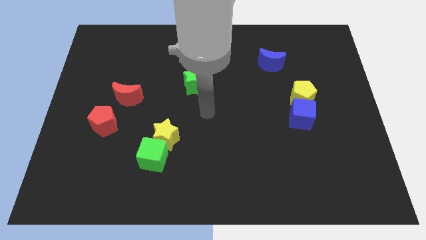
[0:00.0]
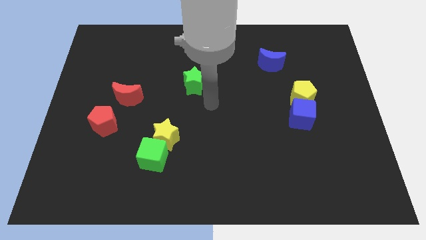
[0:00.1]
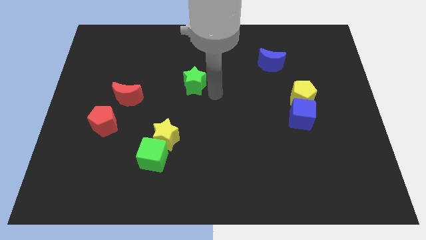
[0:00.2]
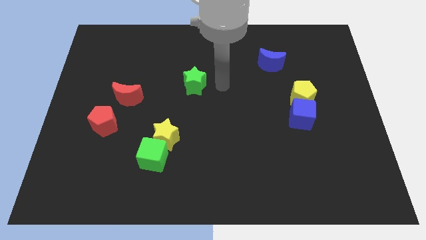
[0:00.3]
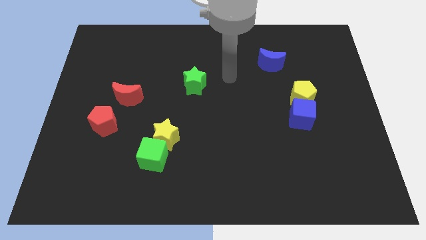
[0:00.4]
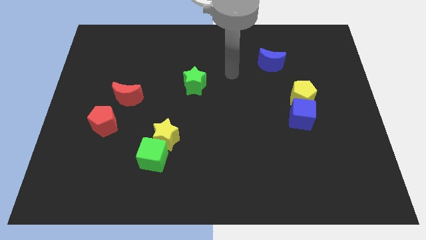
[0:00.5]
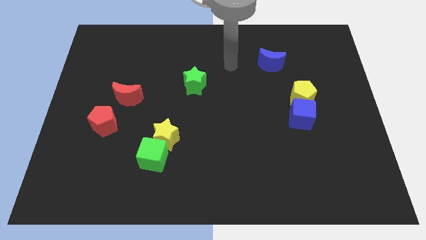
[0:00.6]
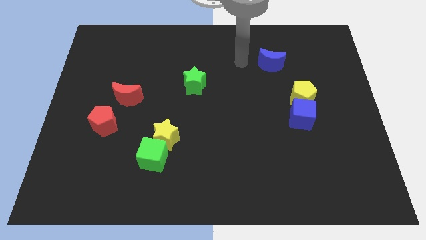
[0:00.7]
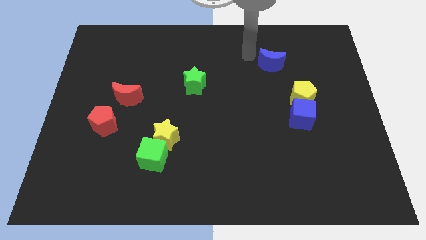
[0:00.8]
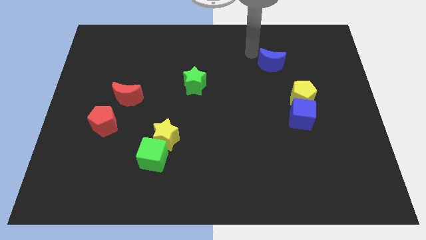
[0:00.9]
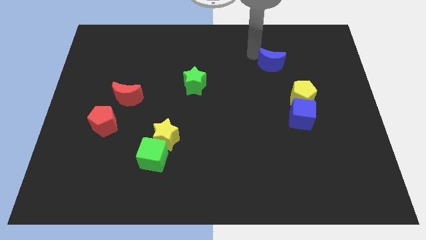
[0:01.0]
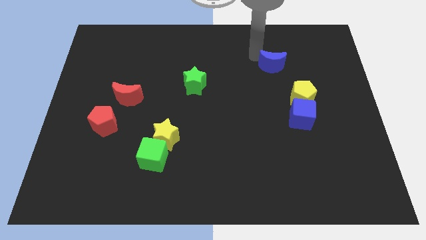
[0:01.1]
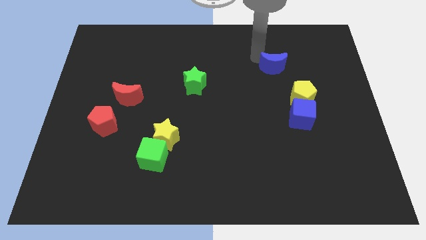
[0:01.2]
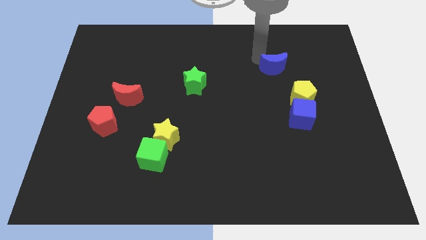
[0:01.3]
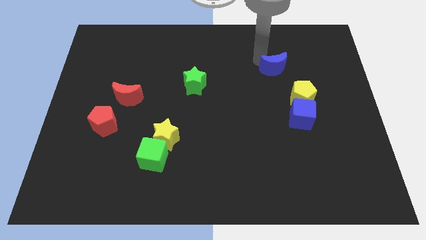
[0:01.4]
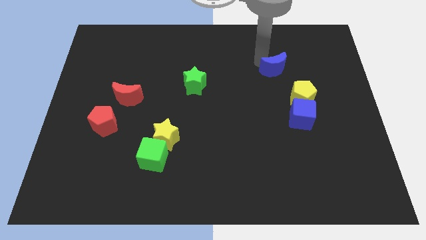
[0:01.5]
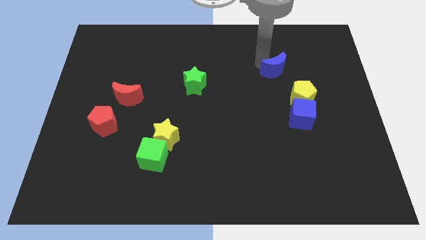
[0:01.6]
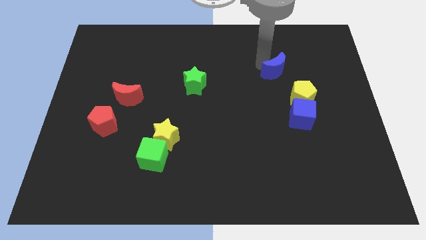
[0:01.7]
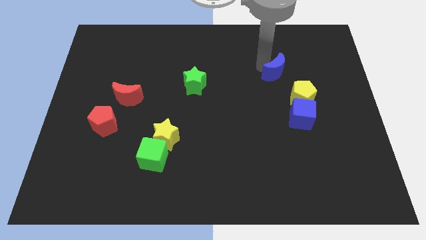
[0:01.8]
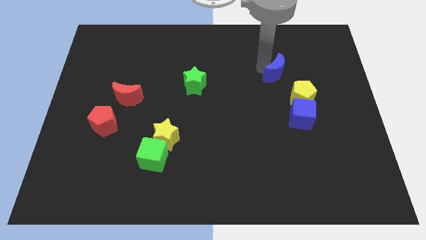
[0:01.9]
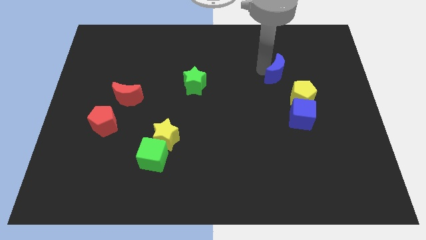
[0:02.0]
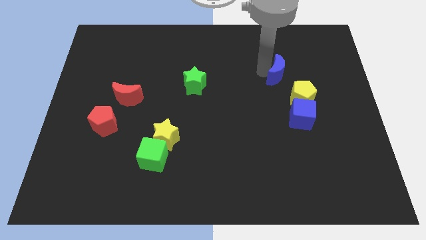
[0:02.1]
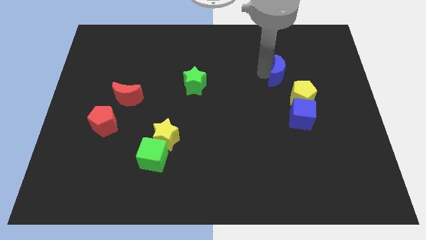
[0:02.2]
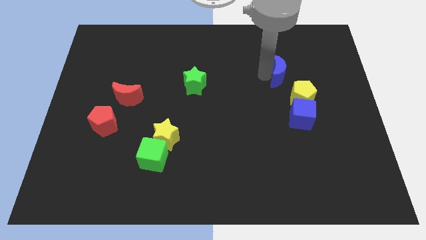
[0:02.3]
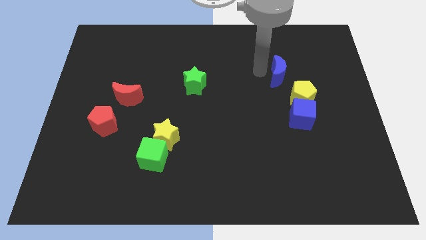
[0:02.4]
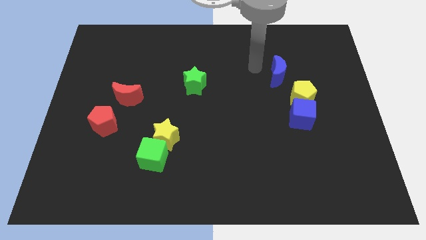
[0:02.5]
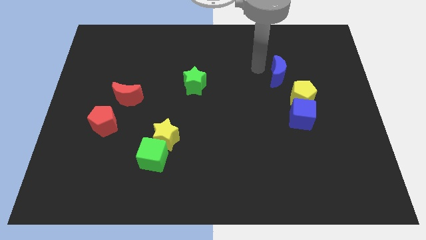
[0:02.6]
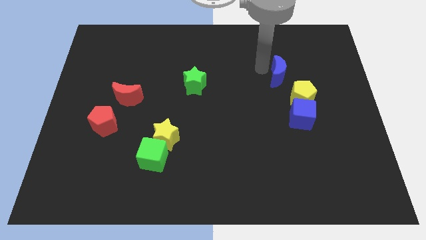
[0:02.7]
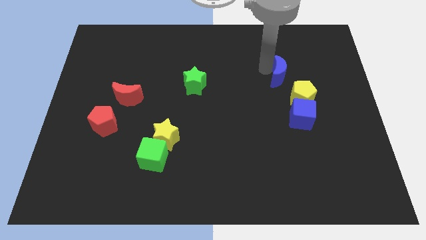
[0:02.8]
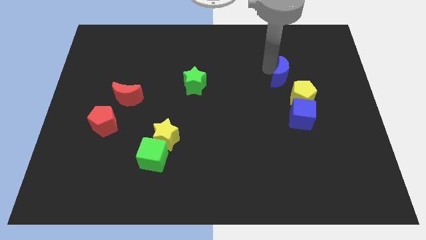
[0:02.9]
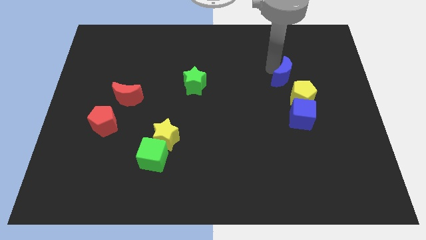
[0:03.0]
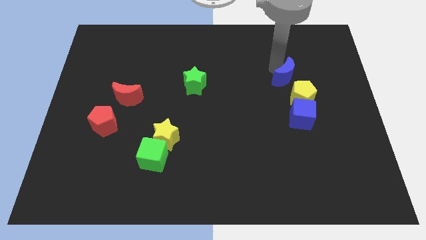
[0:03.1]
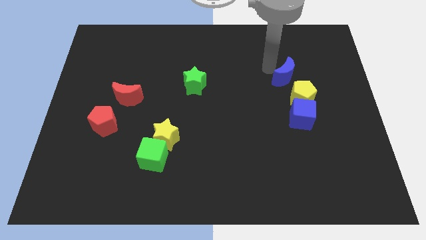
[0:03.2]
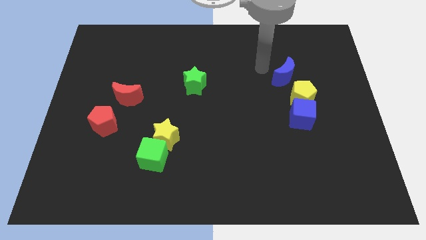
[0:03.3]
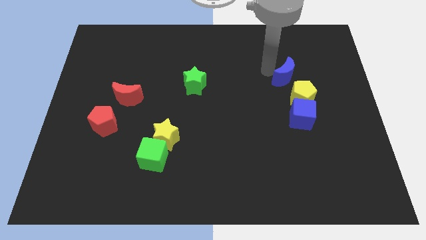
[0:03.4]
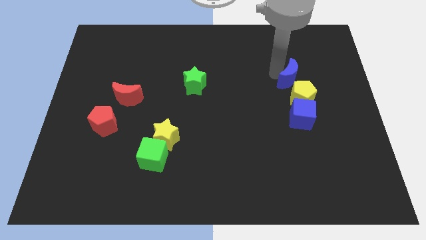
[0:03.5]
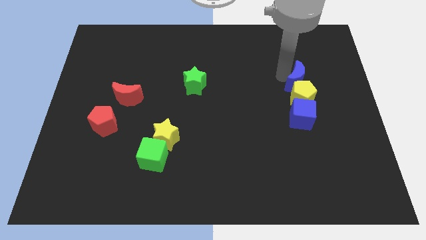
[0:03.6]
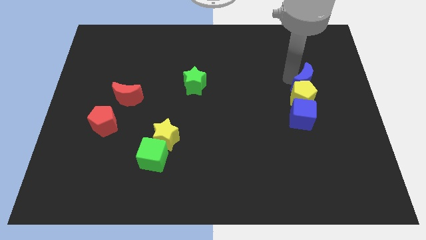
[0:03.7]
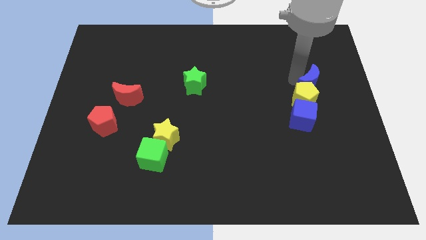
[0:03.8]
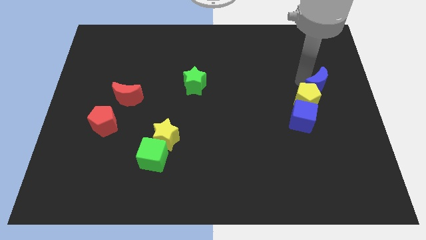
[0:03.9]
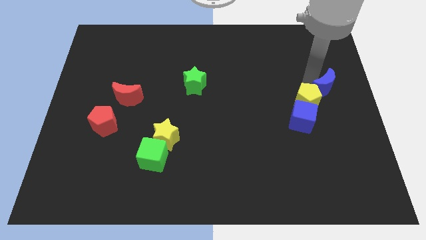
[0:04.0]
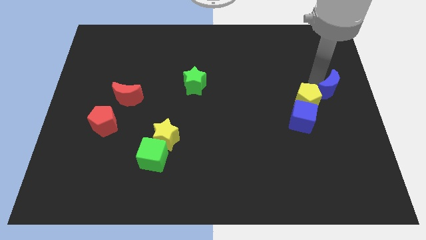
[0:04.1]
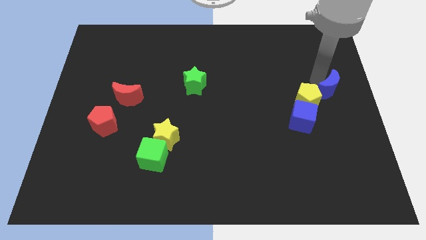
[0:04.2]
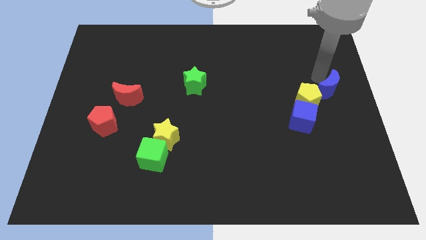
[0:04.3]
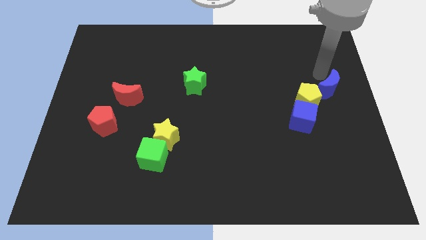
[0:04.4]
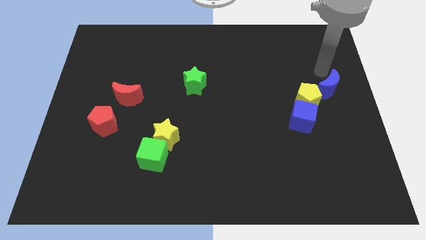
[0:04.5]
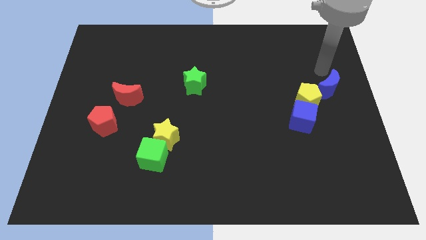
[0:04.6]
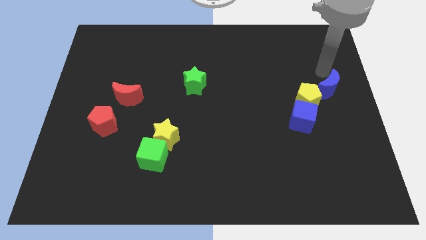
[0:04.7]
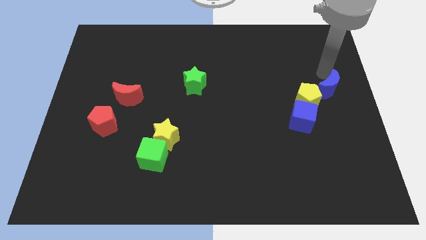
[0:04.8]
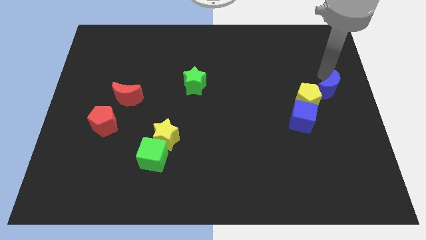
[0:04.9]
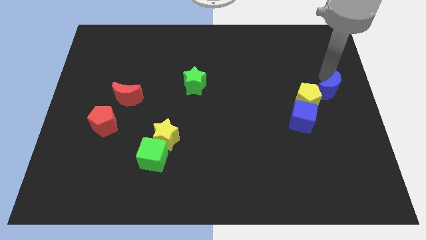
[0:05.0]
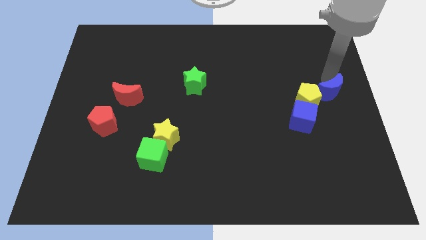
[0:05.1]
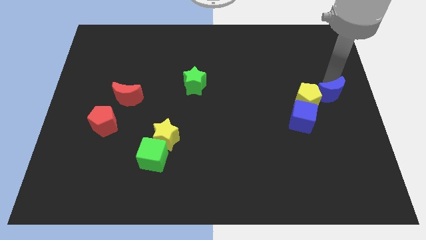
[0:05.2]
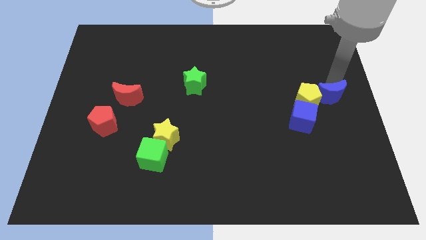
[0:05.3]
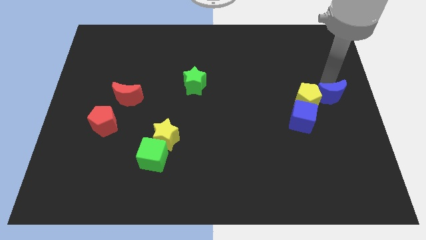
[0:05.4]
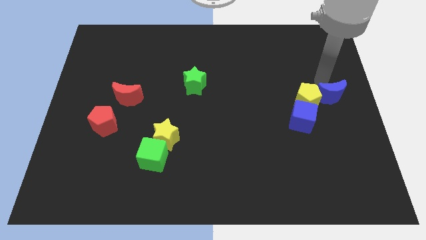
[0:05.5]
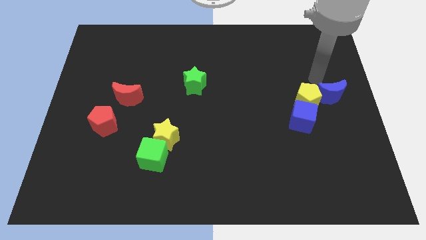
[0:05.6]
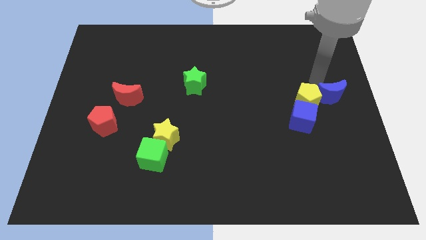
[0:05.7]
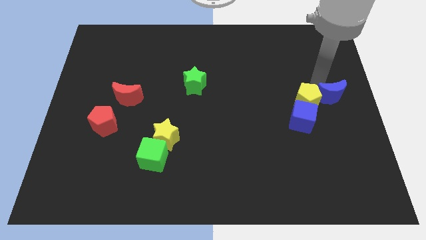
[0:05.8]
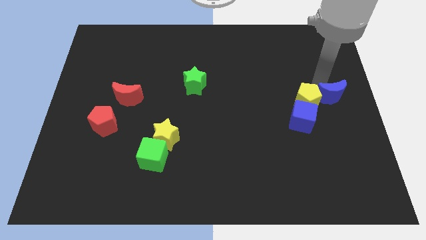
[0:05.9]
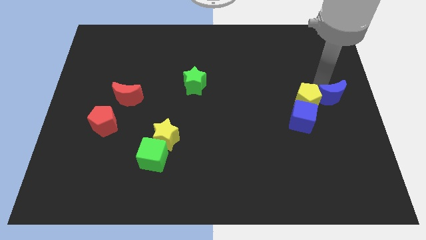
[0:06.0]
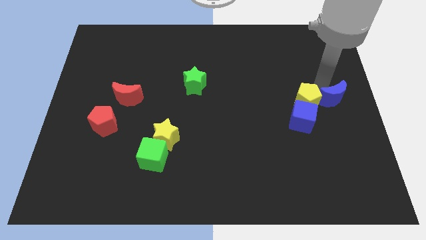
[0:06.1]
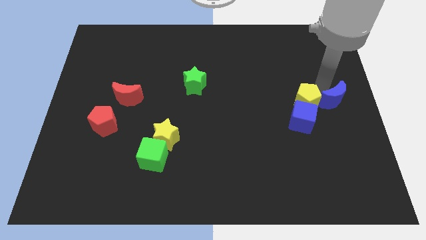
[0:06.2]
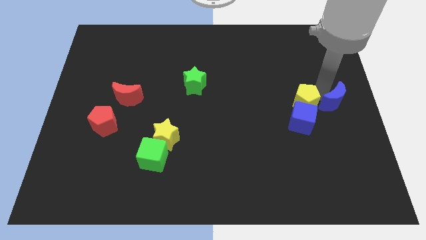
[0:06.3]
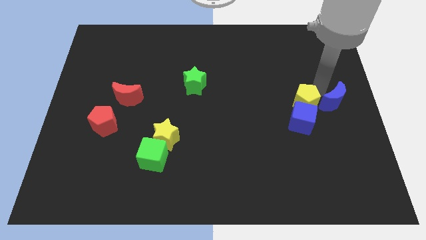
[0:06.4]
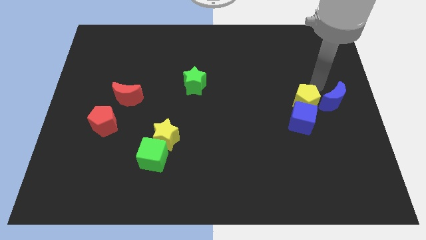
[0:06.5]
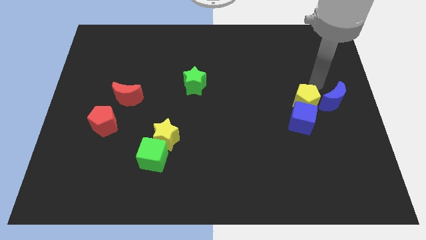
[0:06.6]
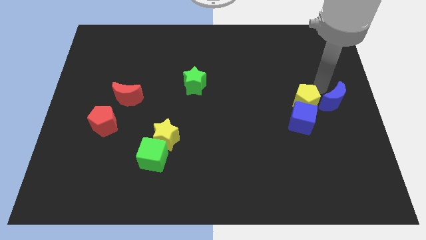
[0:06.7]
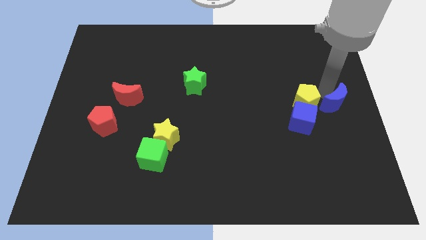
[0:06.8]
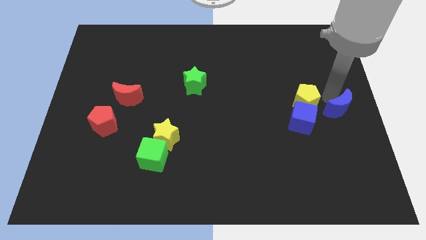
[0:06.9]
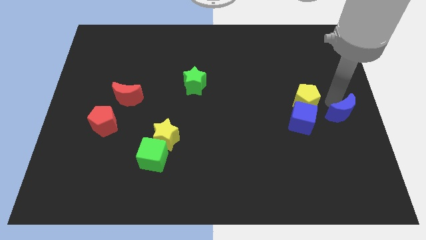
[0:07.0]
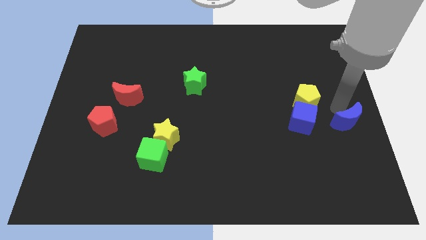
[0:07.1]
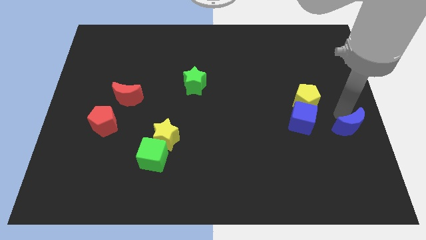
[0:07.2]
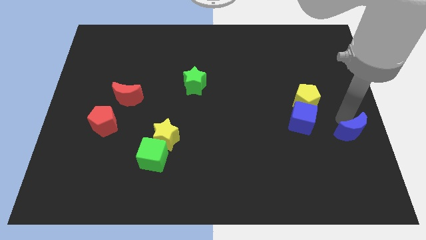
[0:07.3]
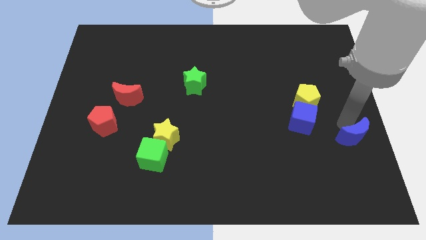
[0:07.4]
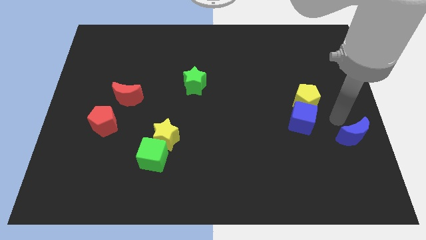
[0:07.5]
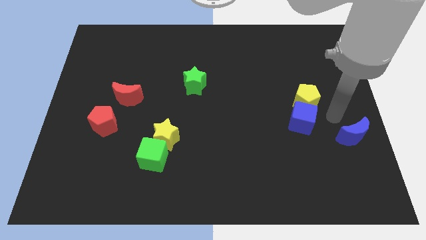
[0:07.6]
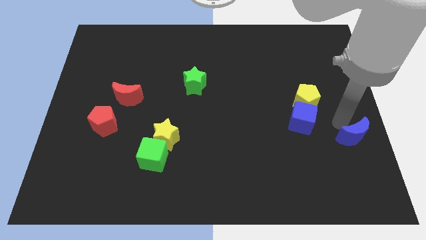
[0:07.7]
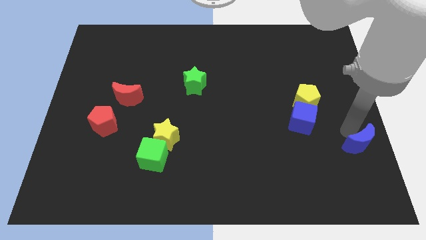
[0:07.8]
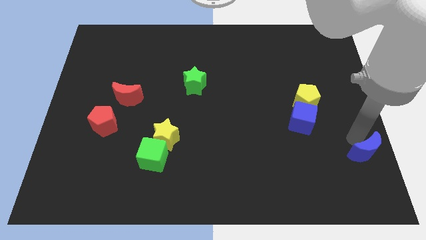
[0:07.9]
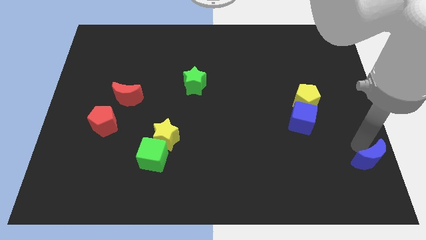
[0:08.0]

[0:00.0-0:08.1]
put the blue moon to the bottom right
